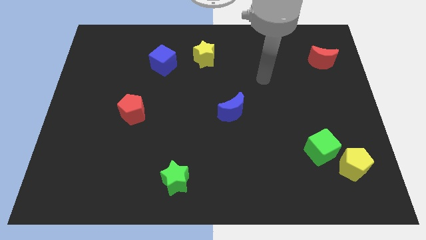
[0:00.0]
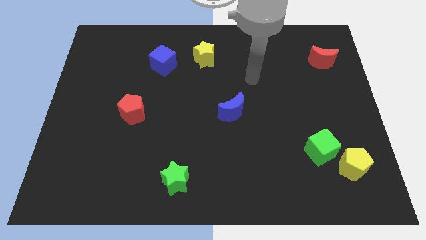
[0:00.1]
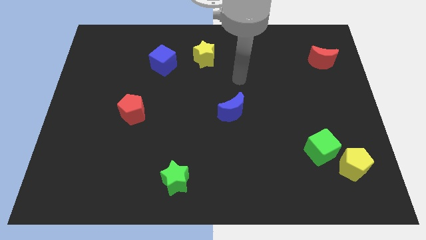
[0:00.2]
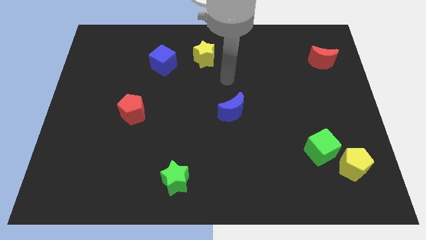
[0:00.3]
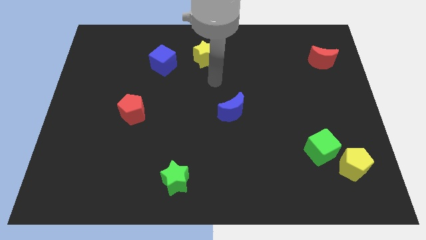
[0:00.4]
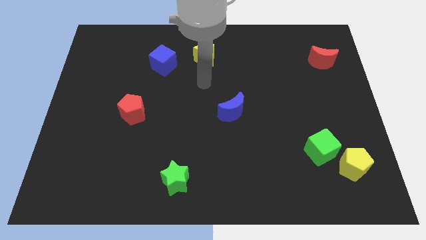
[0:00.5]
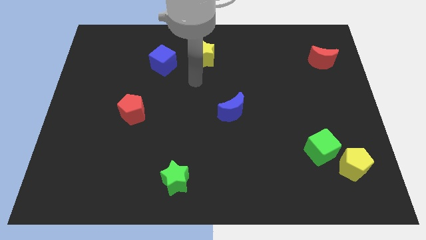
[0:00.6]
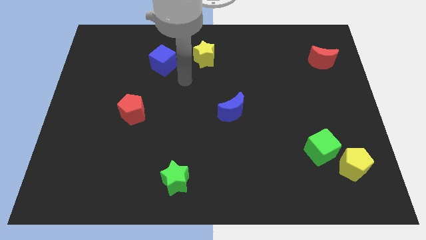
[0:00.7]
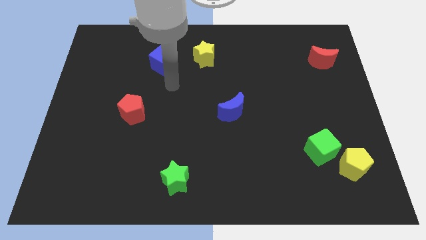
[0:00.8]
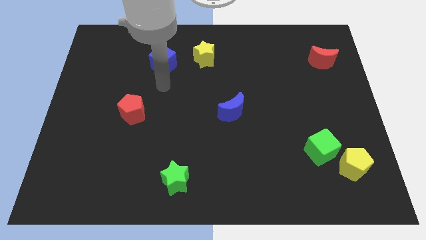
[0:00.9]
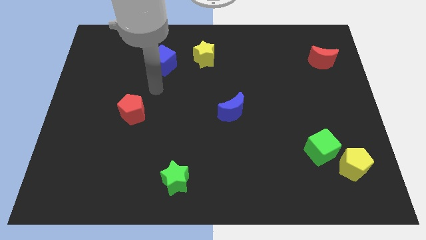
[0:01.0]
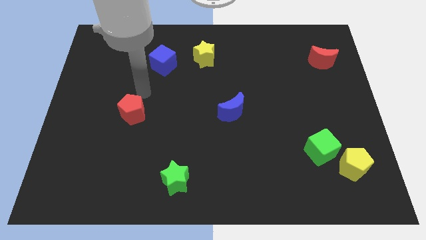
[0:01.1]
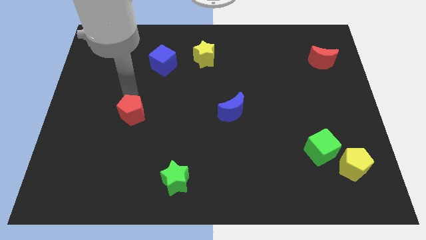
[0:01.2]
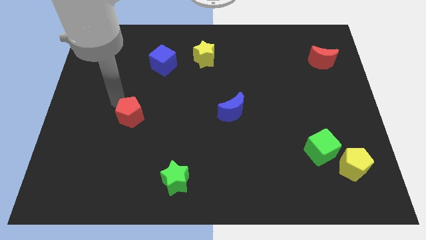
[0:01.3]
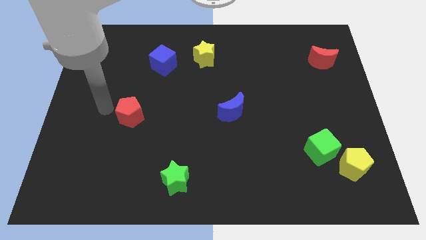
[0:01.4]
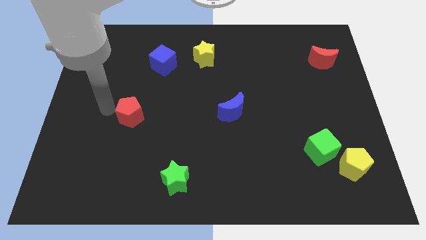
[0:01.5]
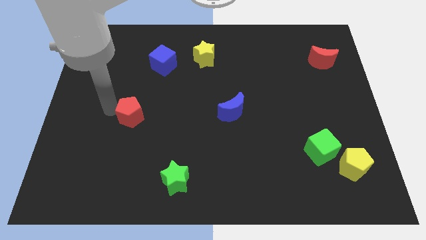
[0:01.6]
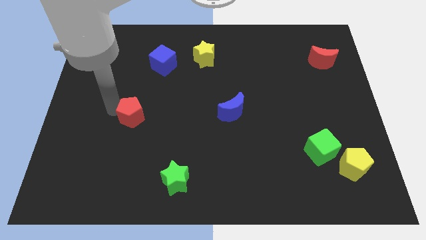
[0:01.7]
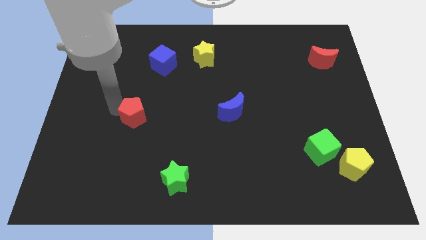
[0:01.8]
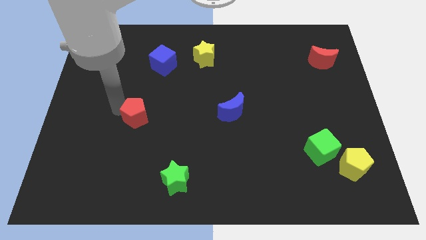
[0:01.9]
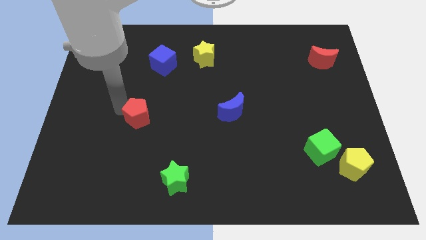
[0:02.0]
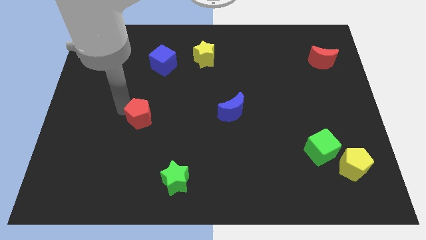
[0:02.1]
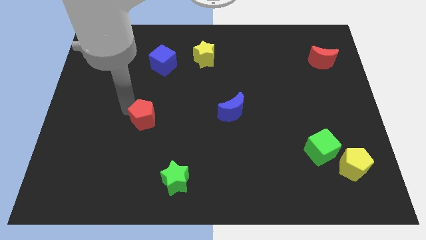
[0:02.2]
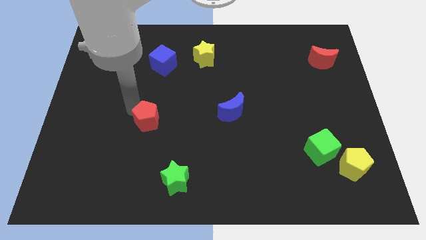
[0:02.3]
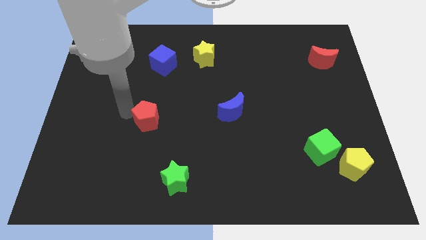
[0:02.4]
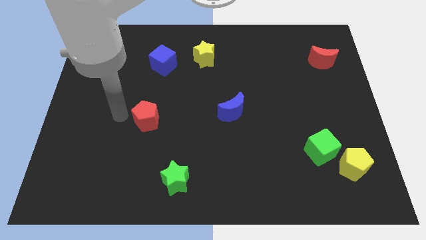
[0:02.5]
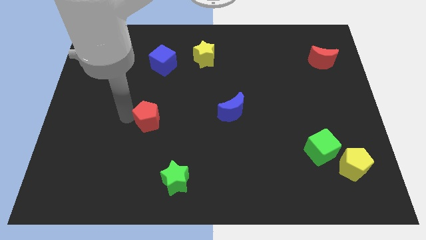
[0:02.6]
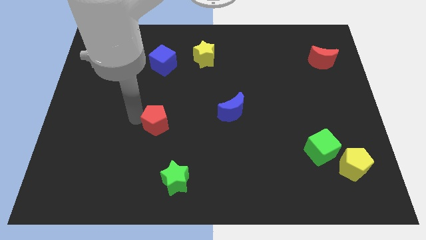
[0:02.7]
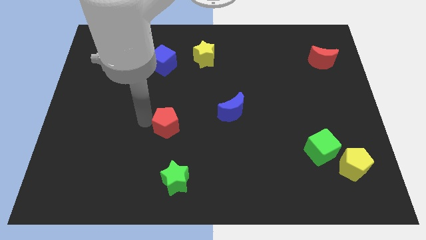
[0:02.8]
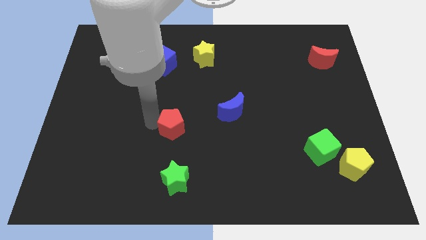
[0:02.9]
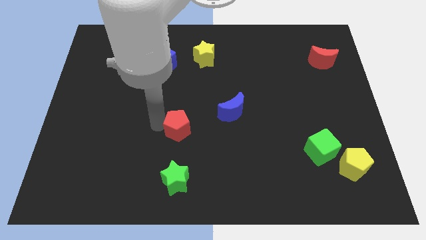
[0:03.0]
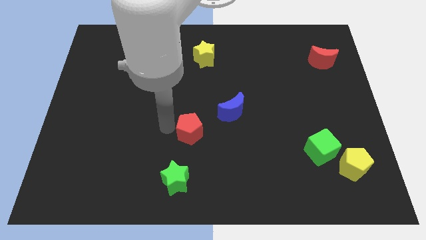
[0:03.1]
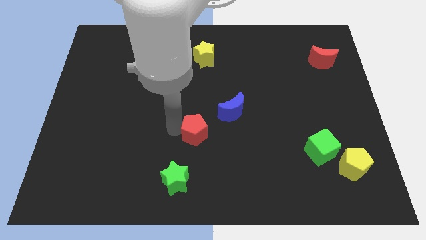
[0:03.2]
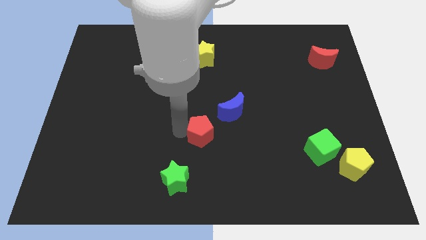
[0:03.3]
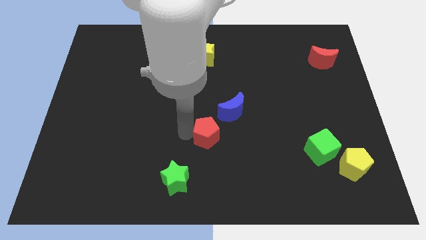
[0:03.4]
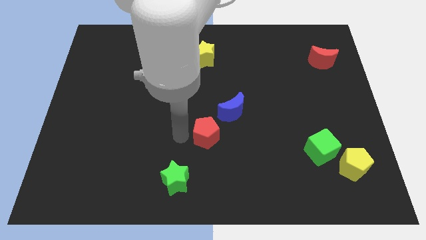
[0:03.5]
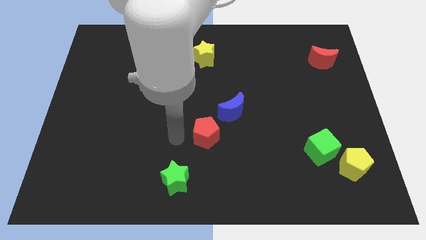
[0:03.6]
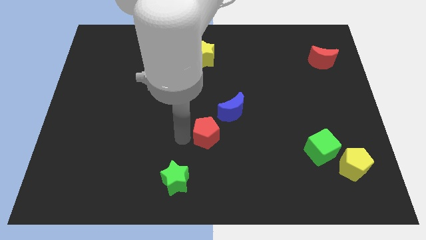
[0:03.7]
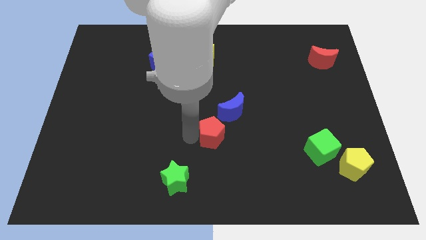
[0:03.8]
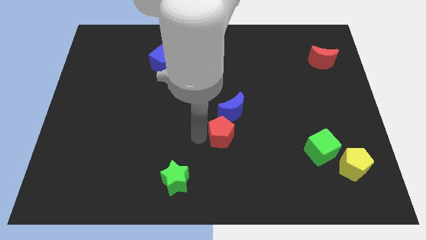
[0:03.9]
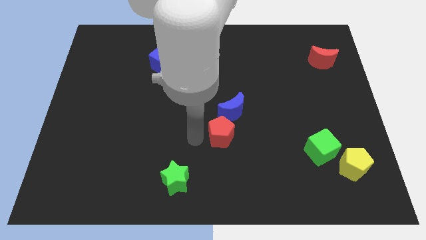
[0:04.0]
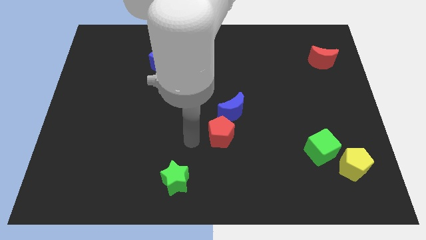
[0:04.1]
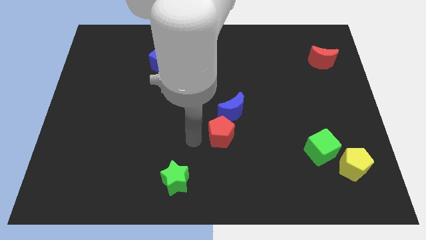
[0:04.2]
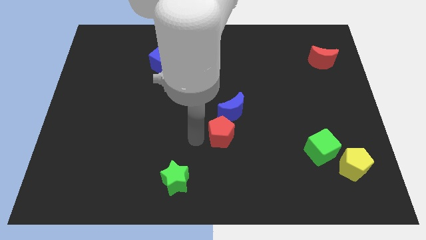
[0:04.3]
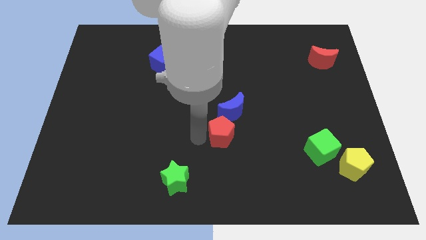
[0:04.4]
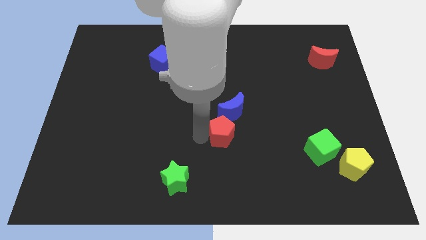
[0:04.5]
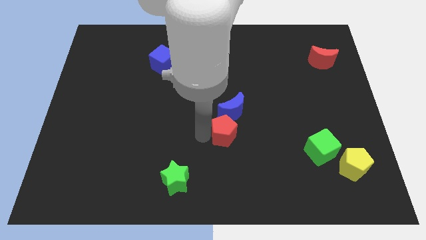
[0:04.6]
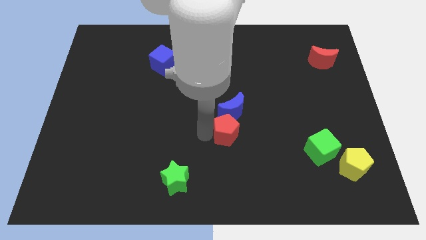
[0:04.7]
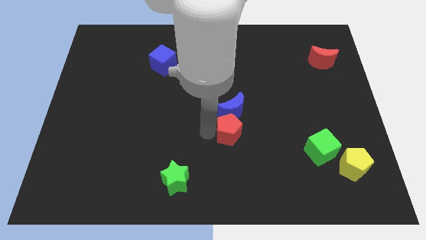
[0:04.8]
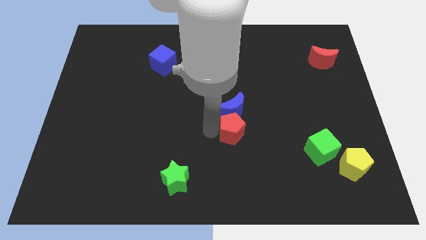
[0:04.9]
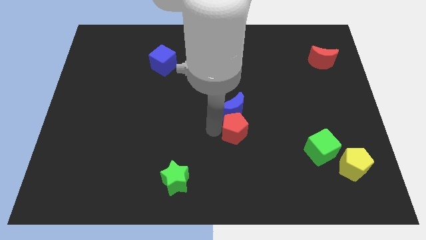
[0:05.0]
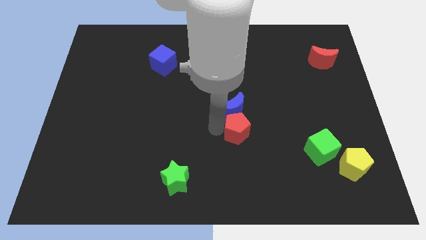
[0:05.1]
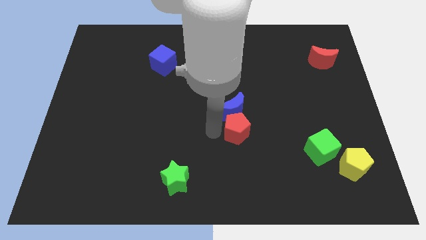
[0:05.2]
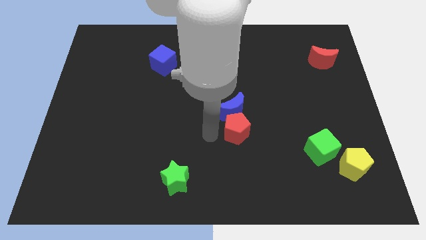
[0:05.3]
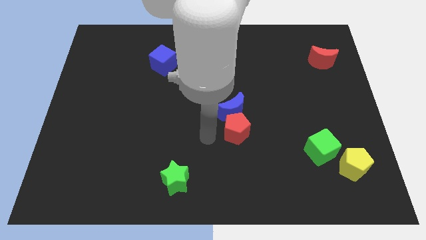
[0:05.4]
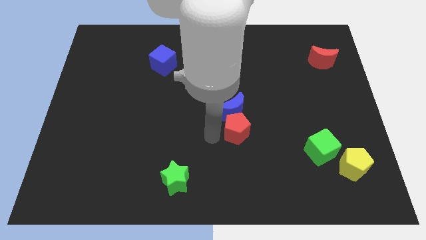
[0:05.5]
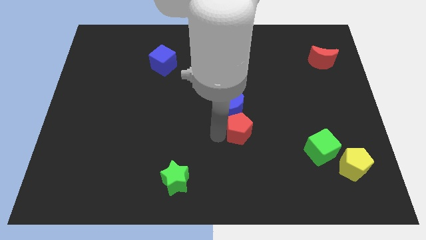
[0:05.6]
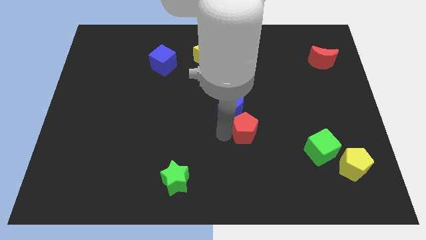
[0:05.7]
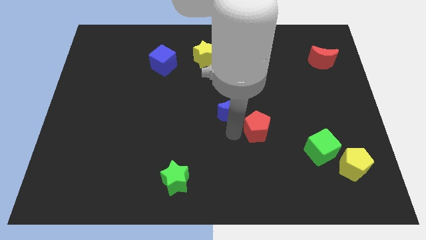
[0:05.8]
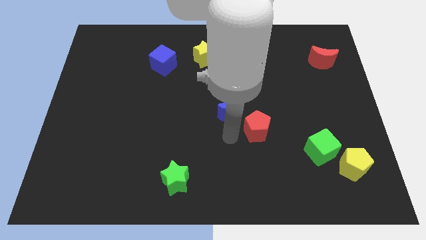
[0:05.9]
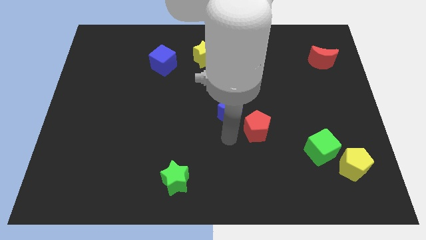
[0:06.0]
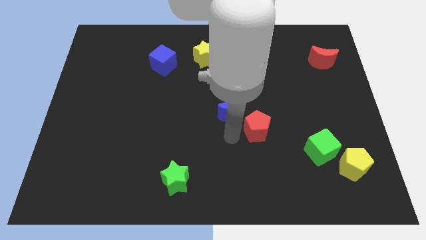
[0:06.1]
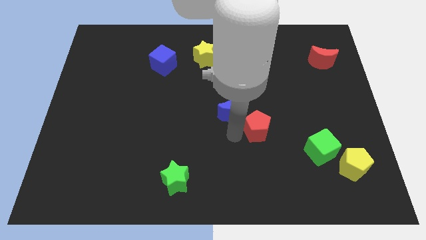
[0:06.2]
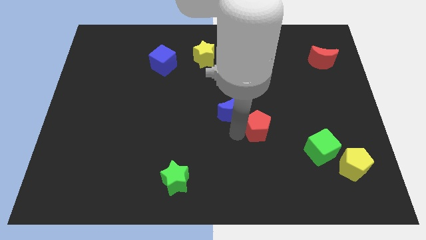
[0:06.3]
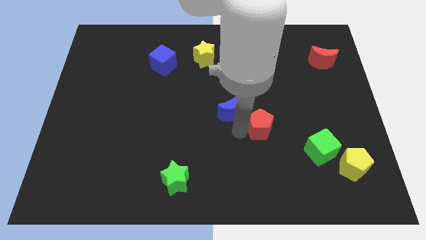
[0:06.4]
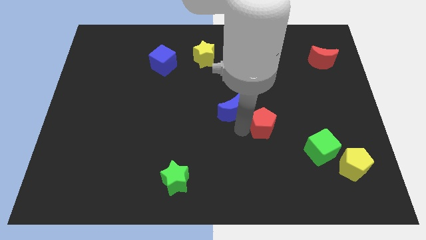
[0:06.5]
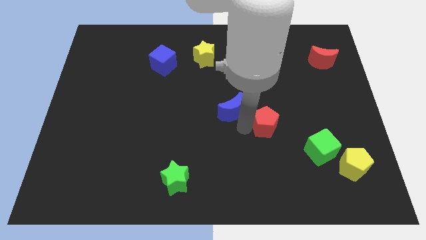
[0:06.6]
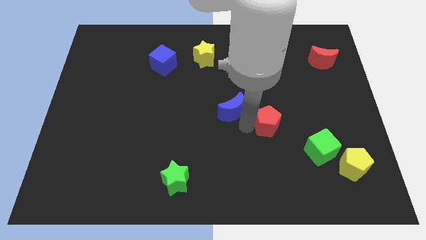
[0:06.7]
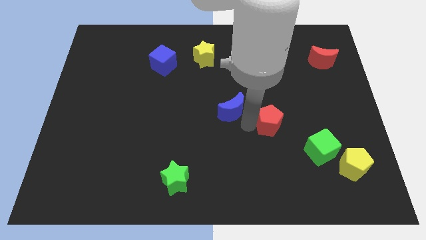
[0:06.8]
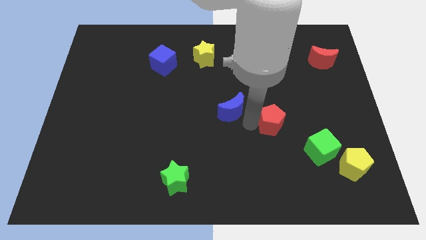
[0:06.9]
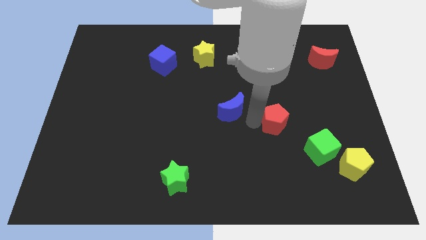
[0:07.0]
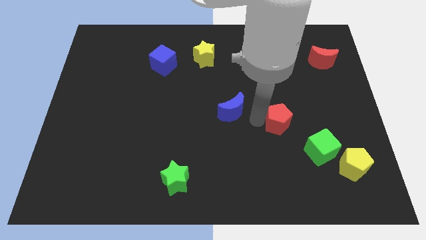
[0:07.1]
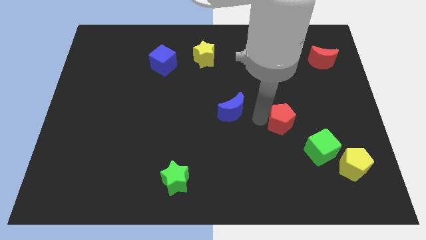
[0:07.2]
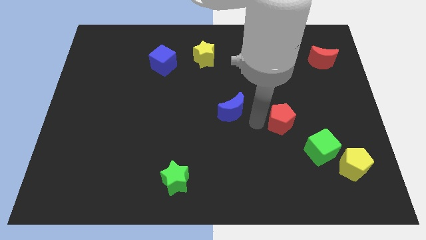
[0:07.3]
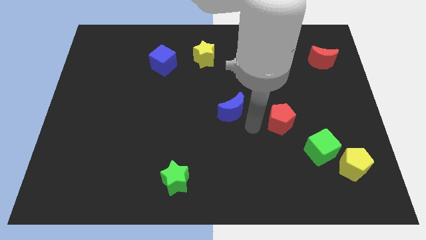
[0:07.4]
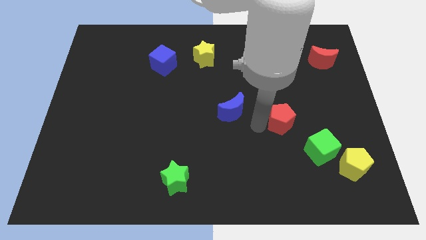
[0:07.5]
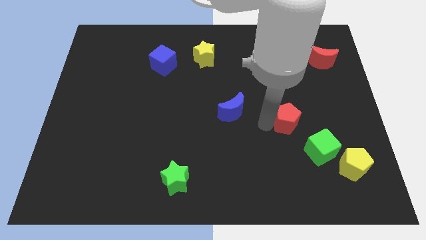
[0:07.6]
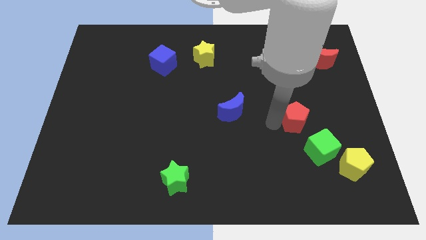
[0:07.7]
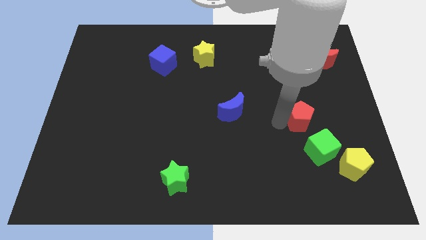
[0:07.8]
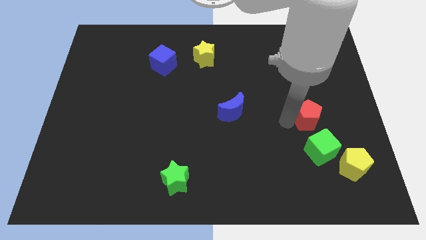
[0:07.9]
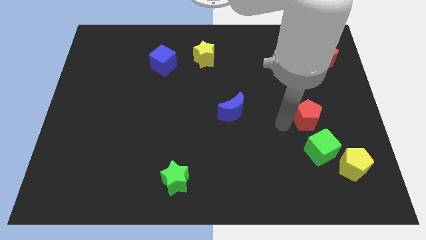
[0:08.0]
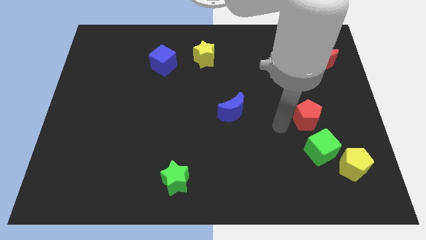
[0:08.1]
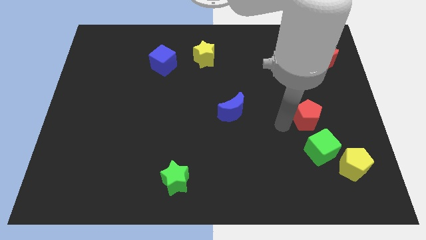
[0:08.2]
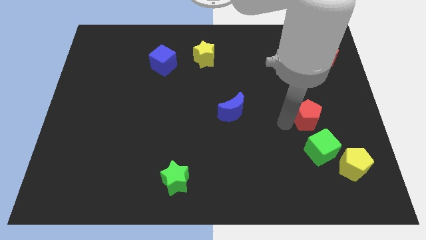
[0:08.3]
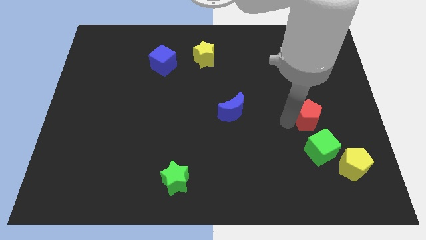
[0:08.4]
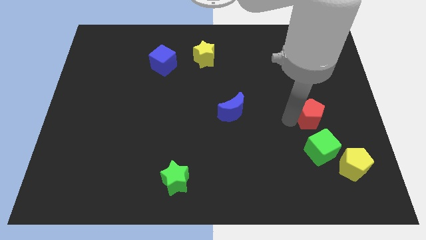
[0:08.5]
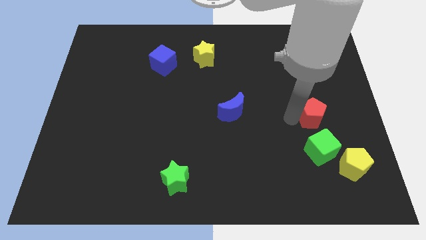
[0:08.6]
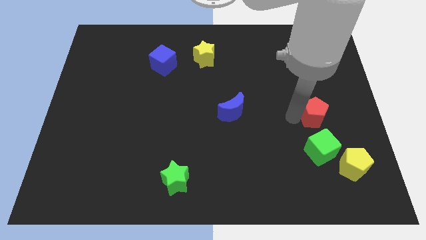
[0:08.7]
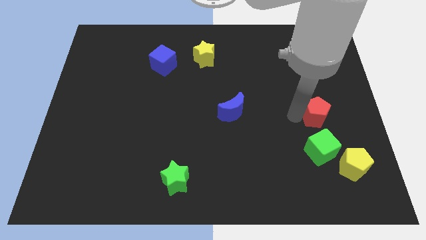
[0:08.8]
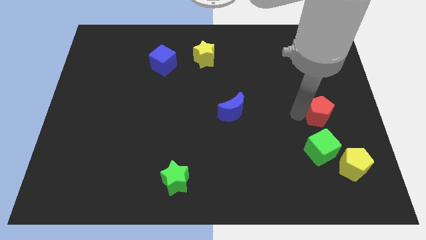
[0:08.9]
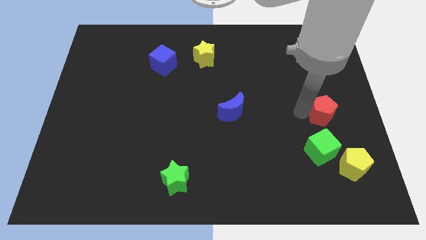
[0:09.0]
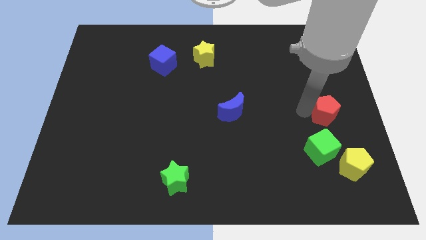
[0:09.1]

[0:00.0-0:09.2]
put the red pentagon to the right side of the board
